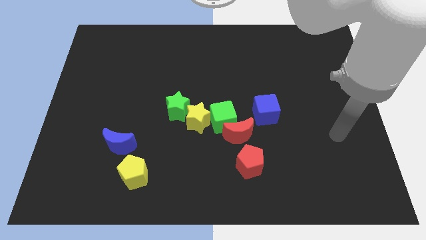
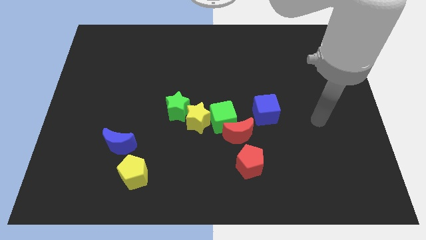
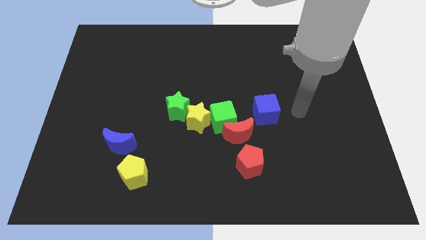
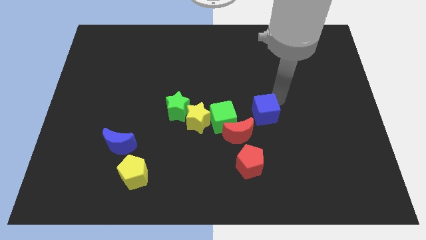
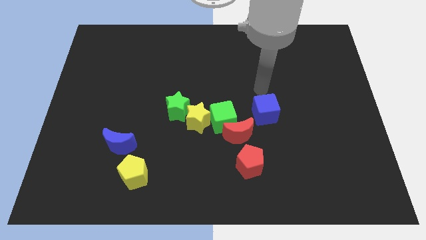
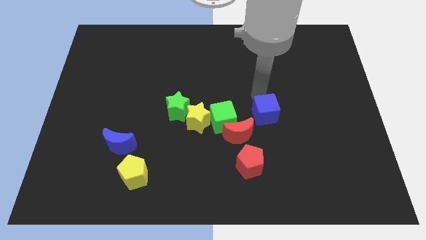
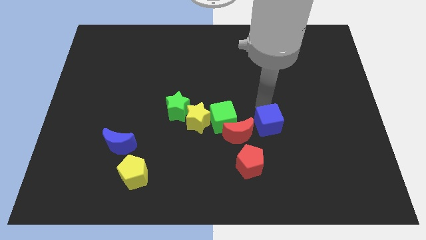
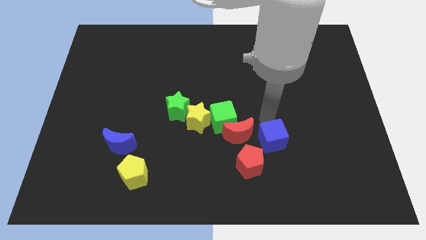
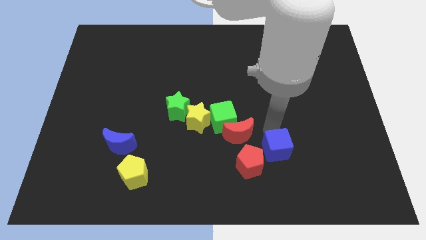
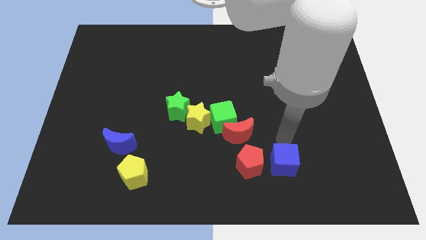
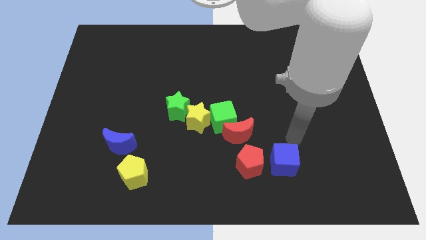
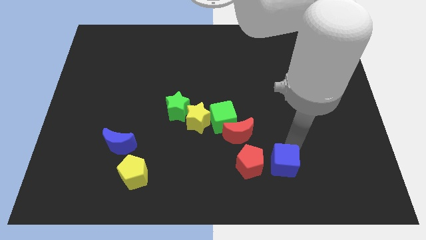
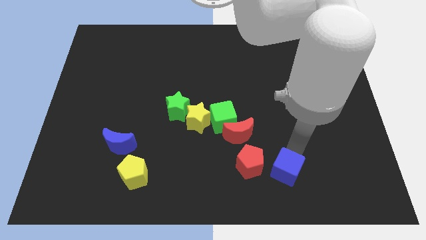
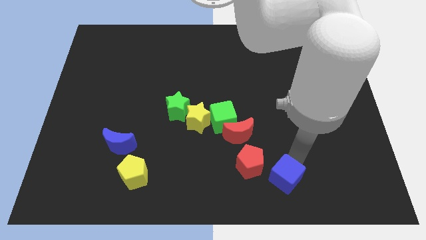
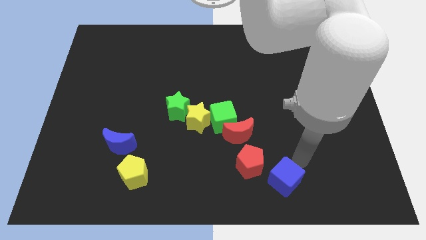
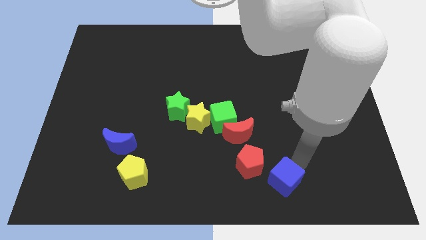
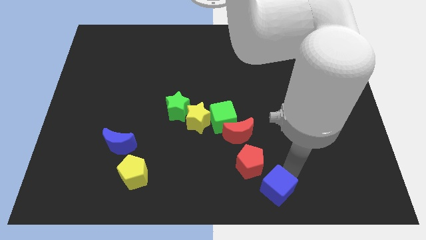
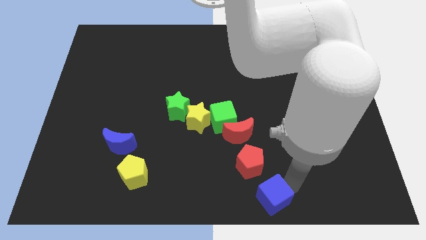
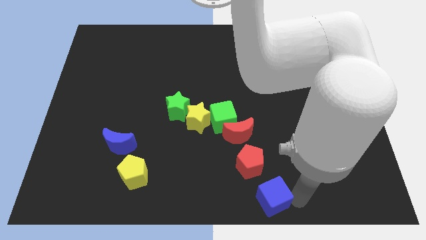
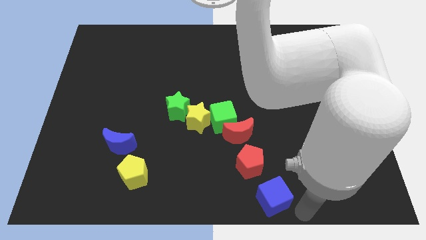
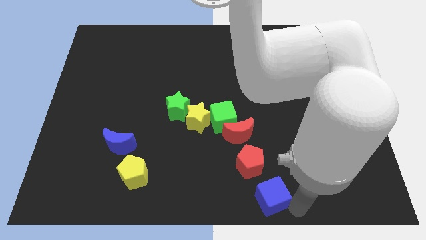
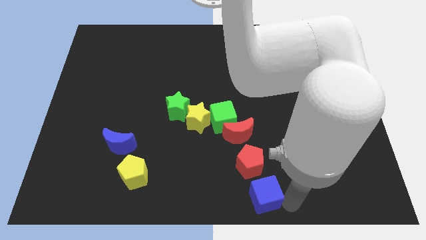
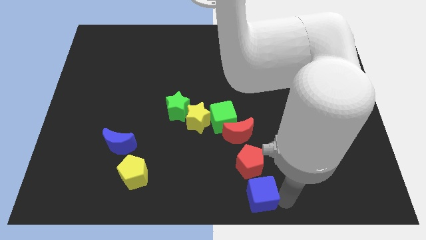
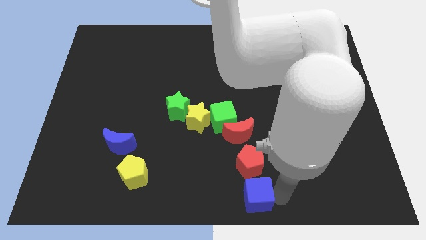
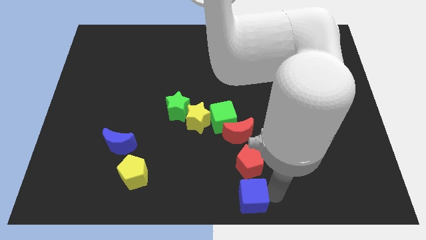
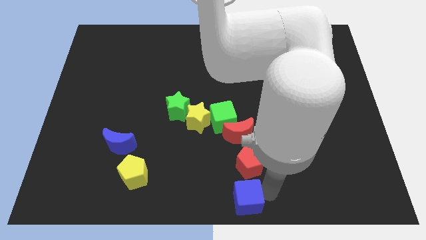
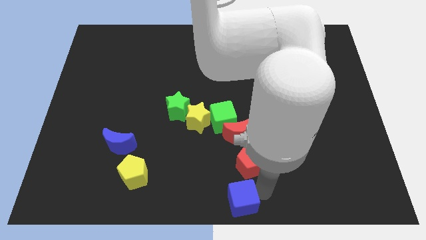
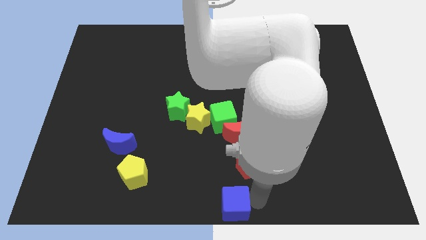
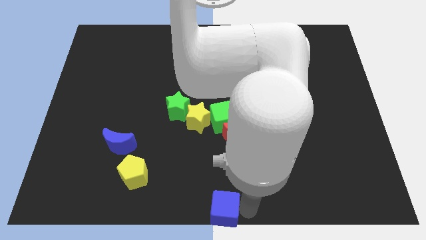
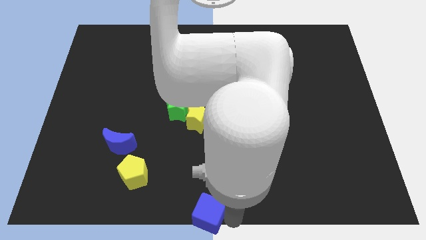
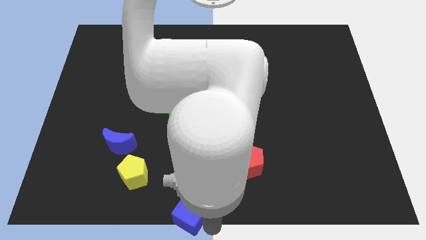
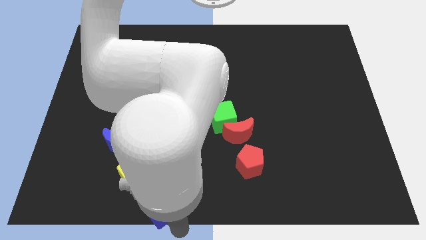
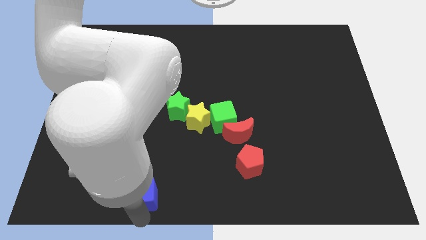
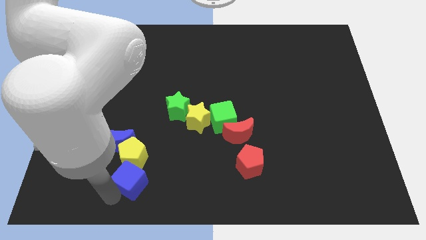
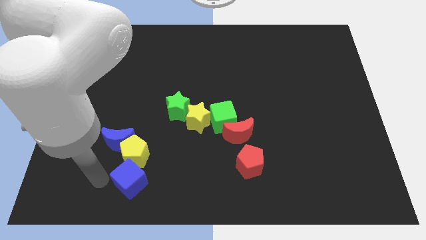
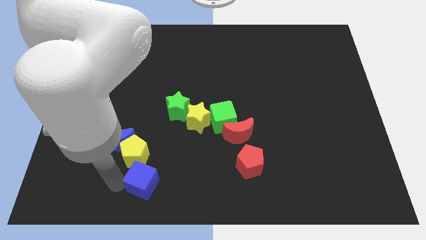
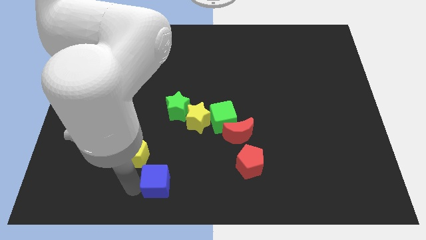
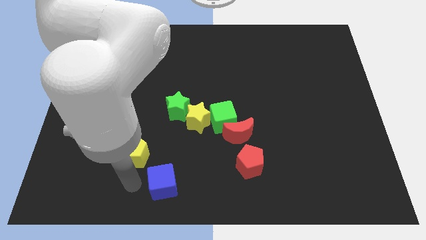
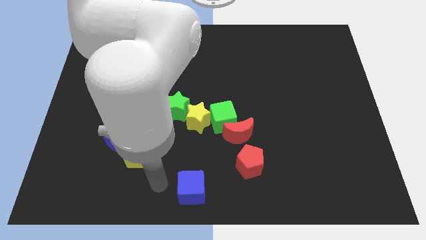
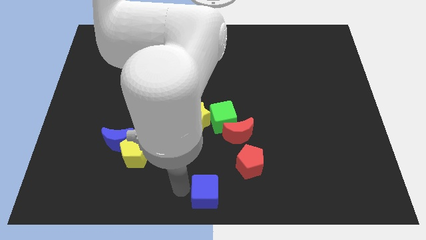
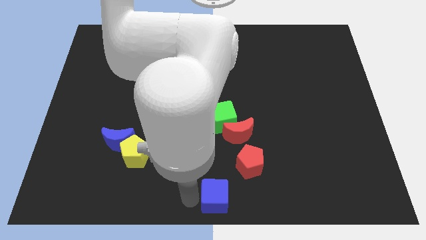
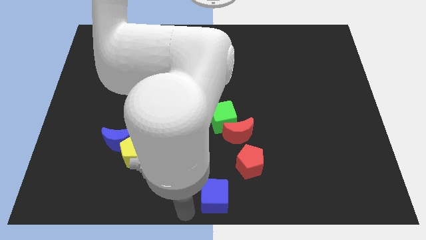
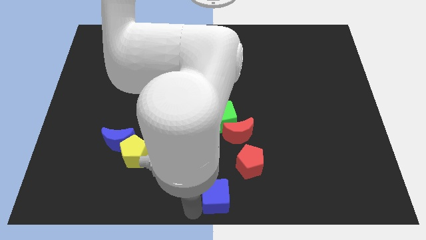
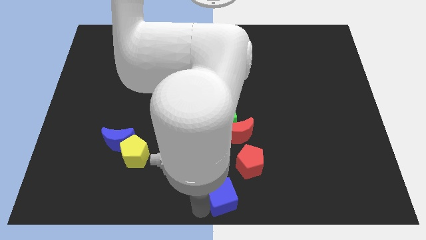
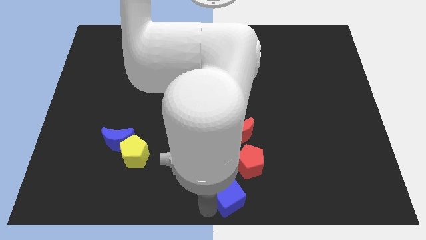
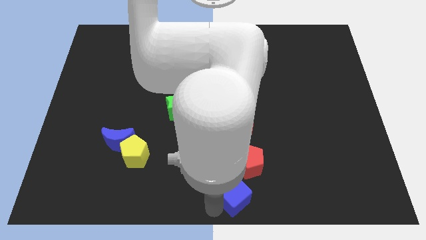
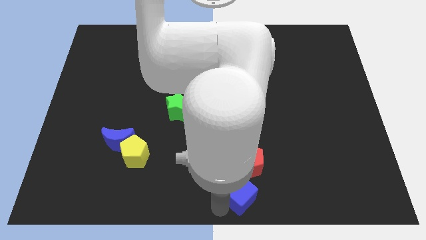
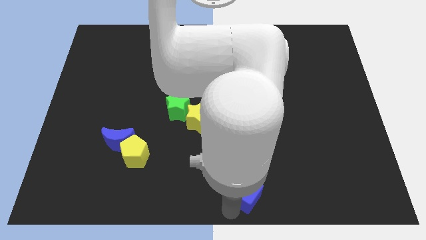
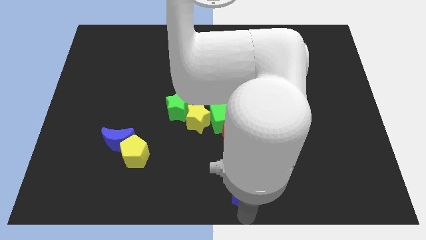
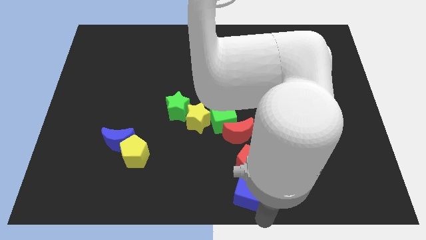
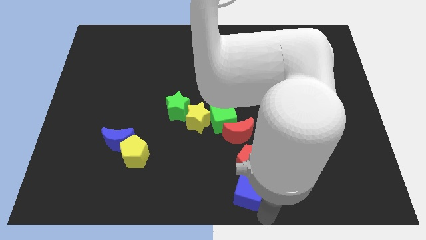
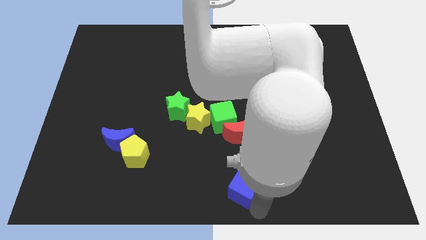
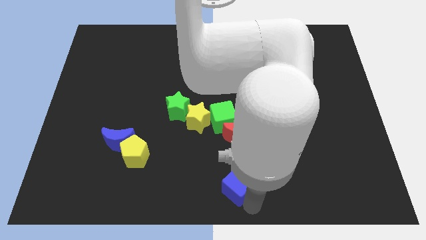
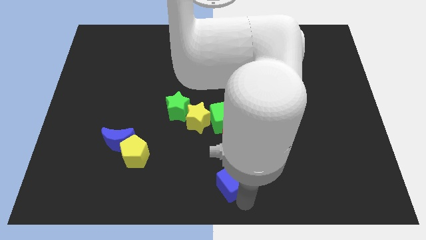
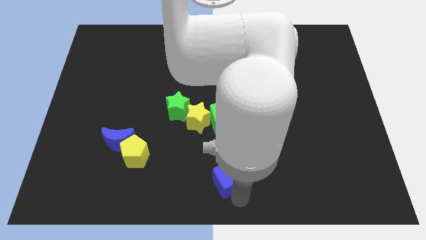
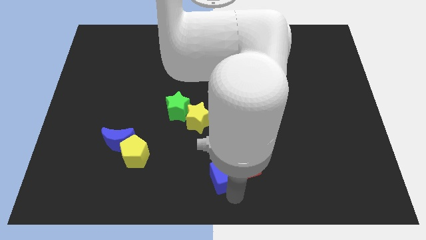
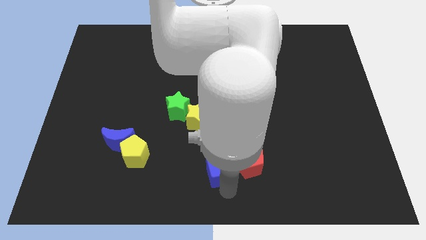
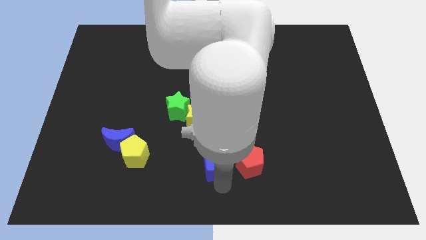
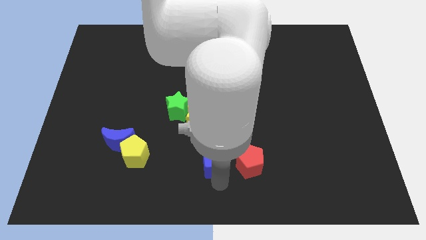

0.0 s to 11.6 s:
move the blue cube to the top left side of the red pentagon

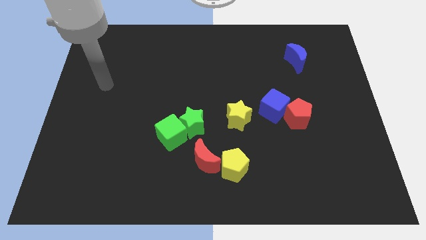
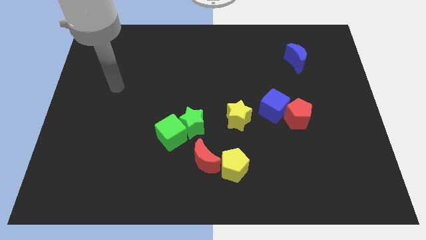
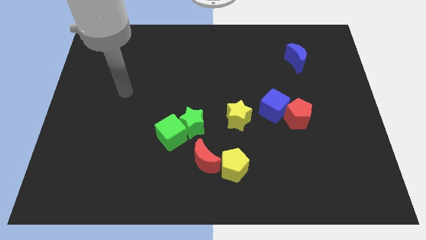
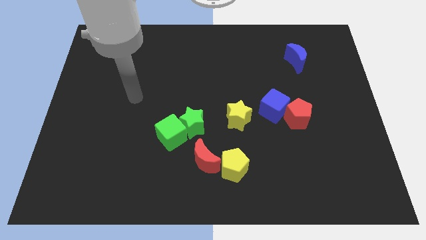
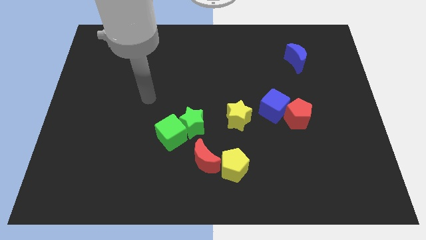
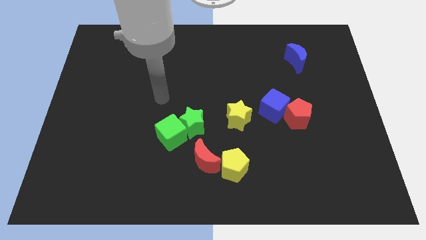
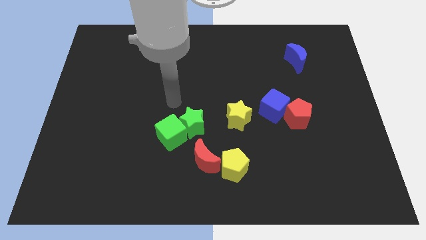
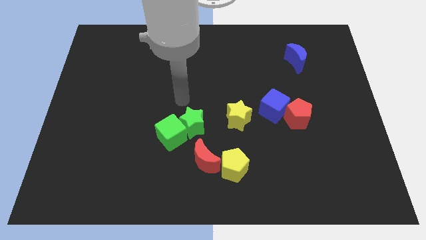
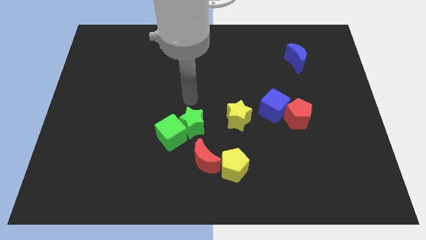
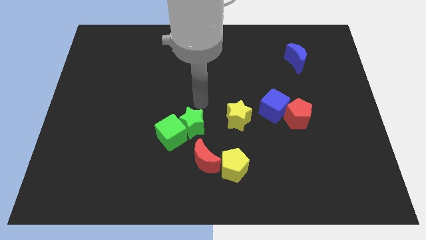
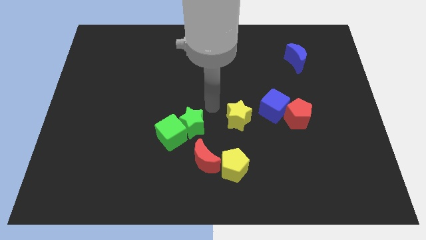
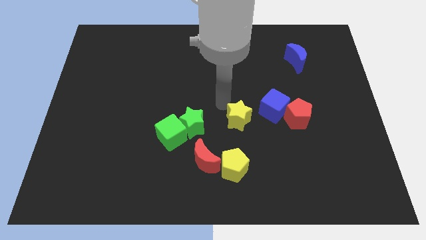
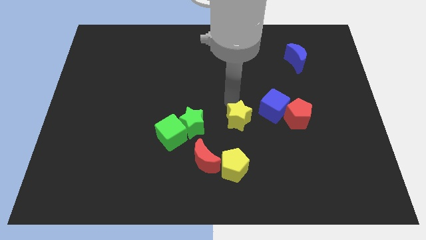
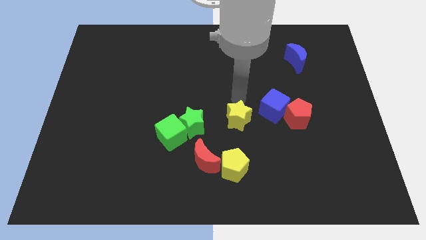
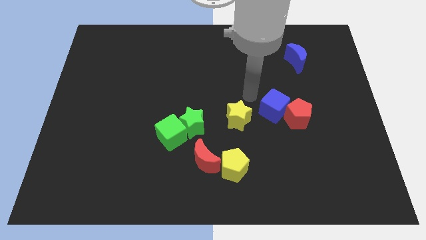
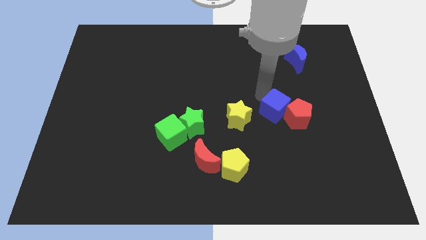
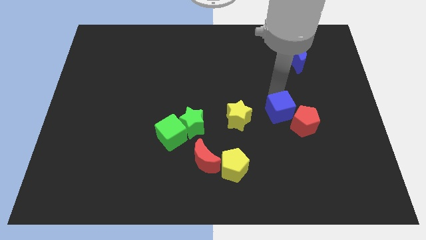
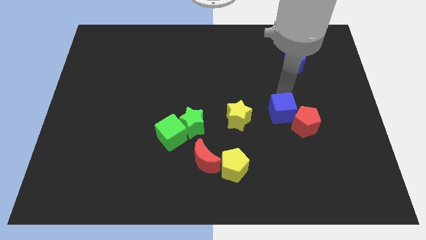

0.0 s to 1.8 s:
put the red pentagon to the bottom of the blue cube

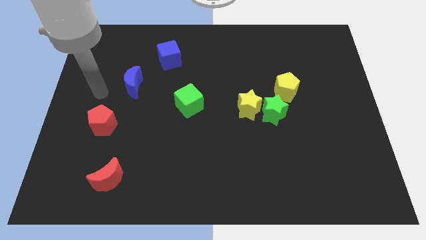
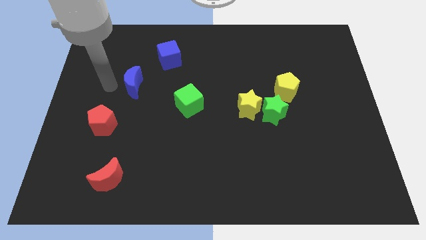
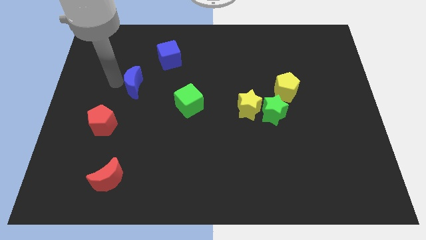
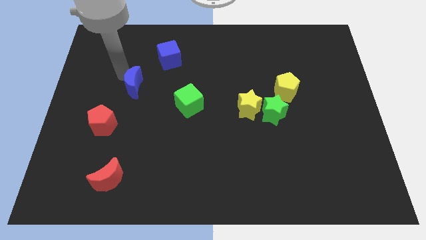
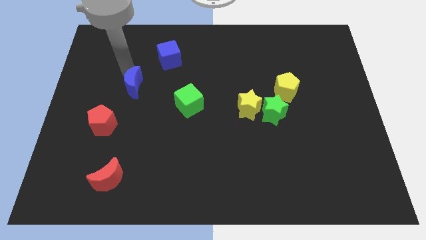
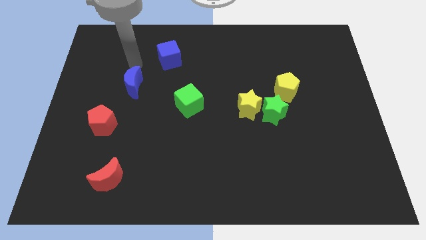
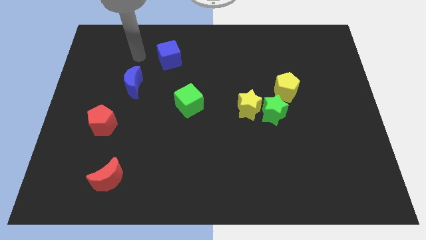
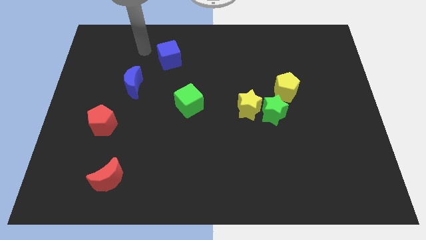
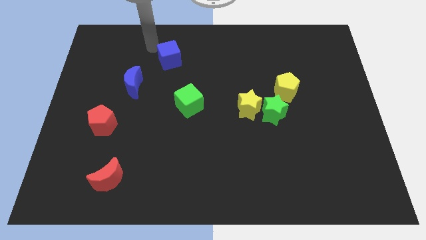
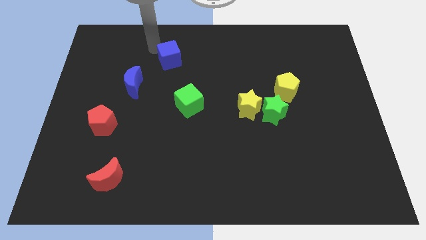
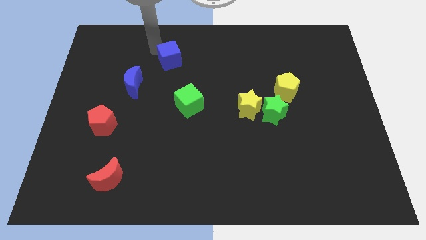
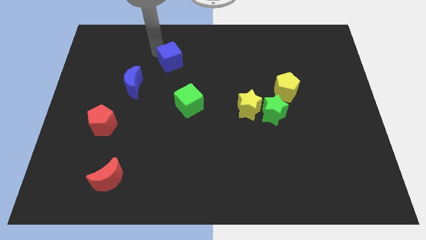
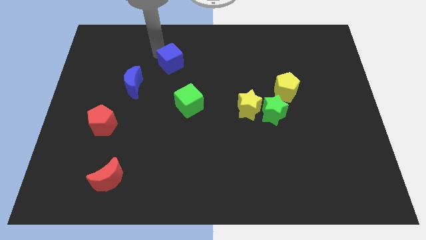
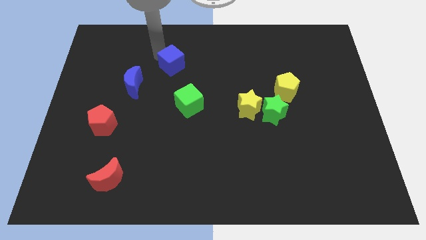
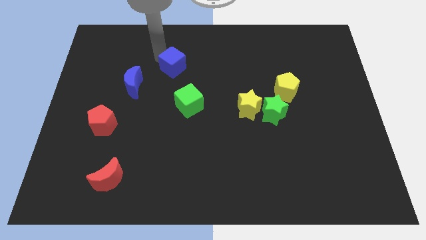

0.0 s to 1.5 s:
put the blue cube above the green cube
